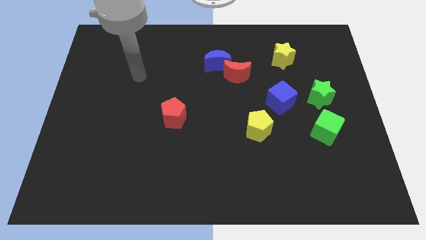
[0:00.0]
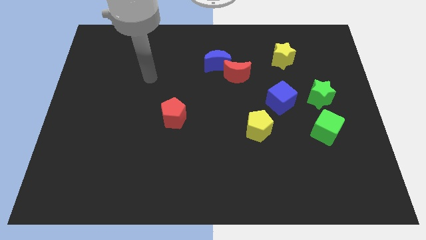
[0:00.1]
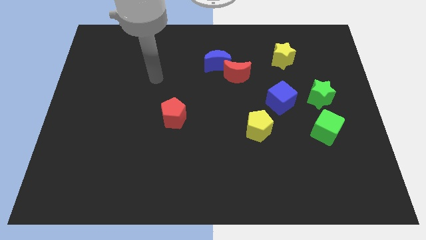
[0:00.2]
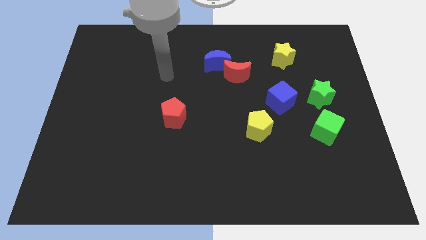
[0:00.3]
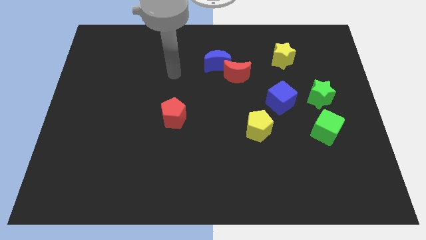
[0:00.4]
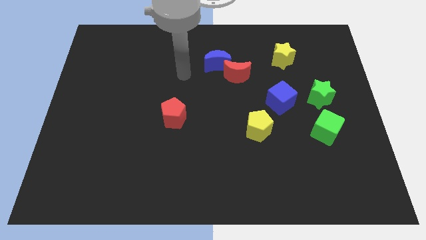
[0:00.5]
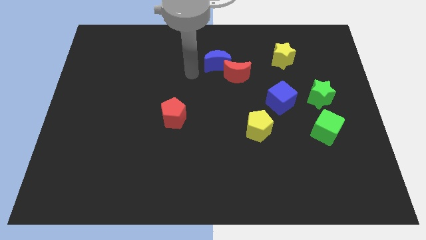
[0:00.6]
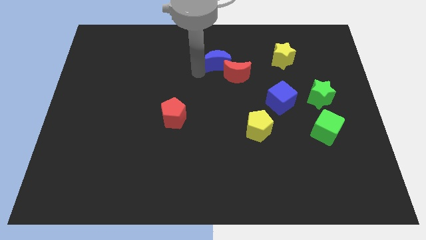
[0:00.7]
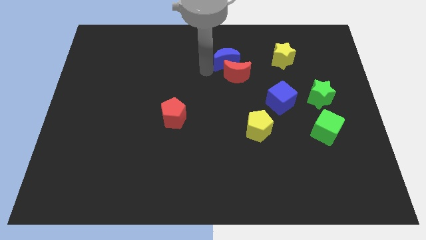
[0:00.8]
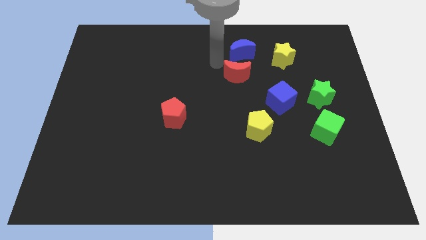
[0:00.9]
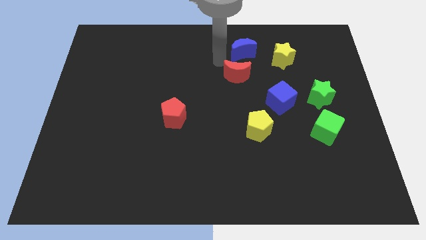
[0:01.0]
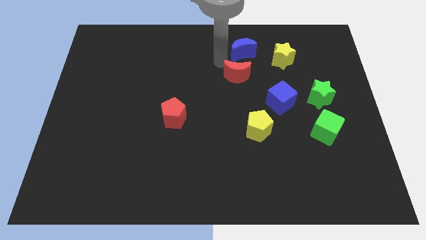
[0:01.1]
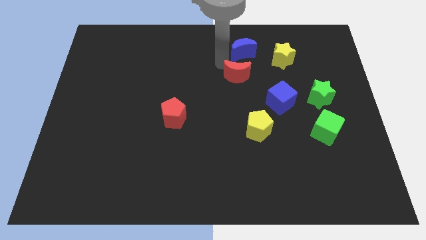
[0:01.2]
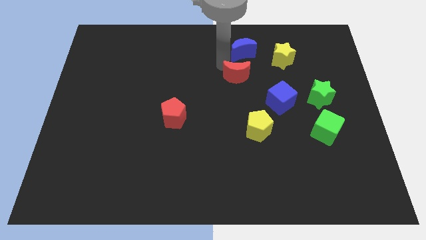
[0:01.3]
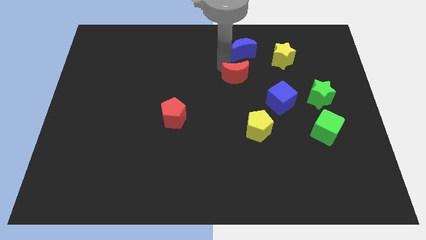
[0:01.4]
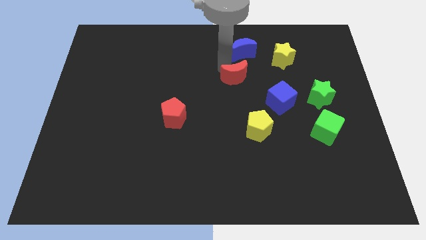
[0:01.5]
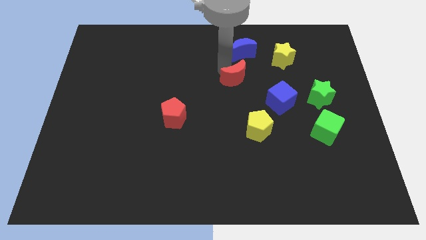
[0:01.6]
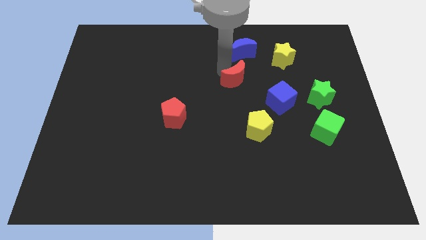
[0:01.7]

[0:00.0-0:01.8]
pull the red moon apart from the blue moon

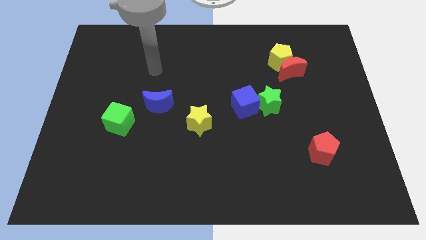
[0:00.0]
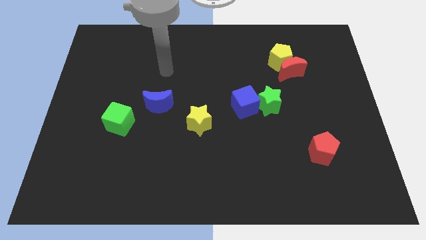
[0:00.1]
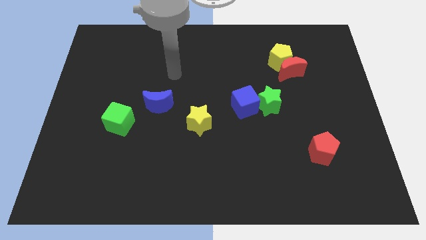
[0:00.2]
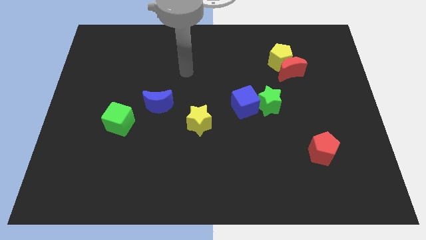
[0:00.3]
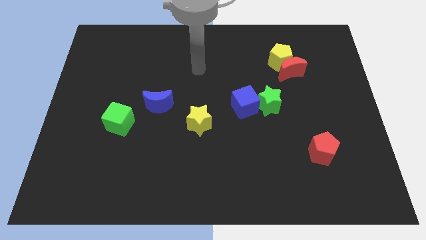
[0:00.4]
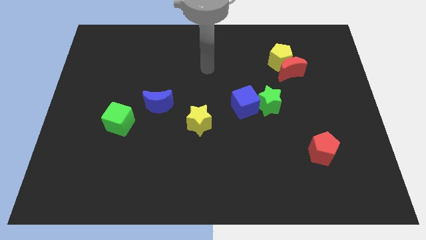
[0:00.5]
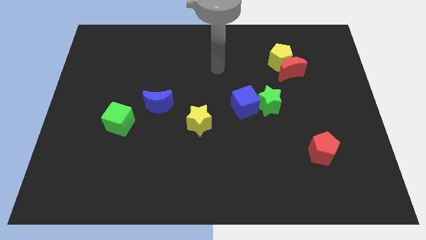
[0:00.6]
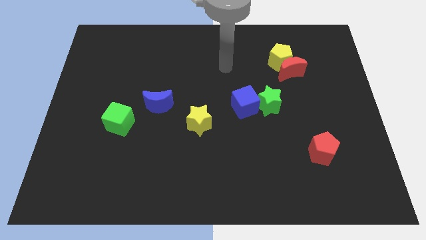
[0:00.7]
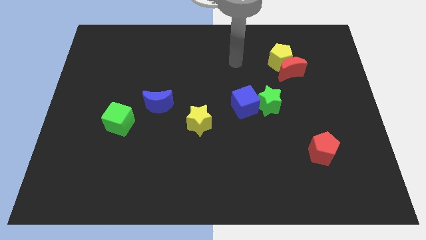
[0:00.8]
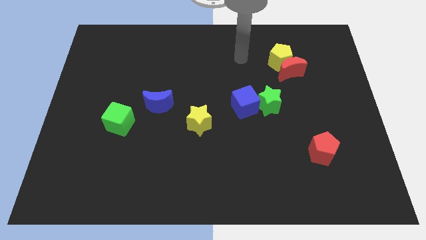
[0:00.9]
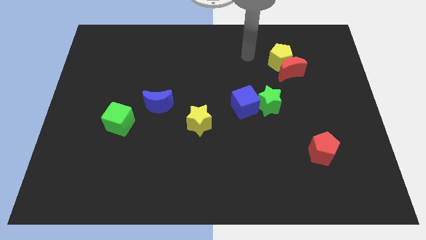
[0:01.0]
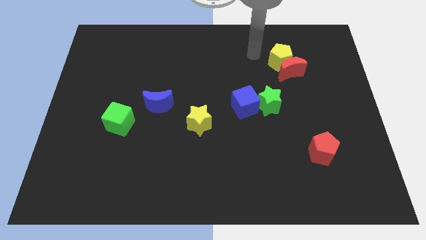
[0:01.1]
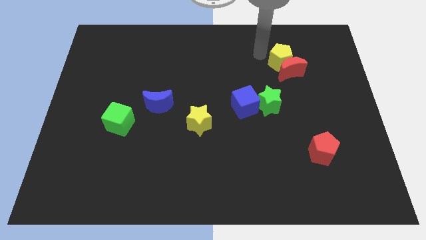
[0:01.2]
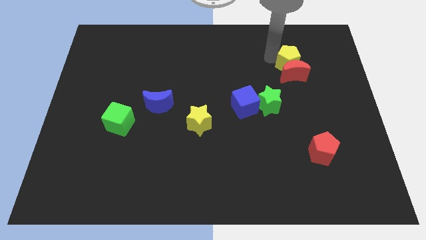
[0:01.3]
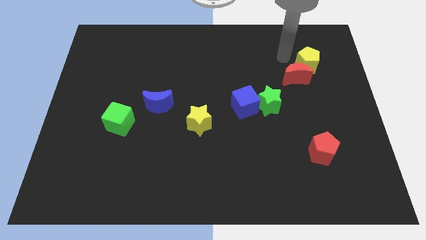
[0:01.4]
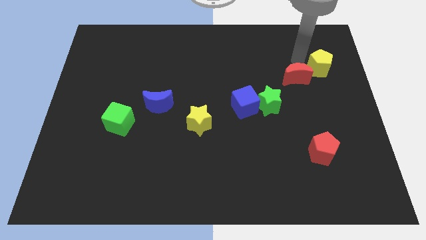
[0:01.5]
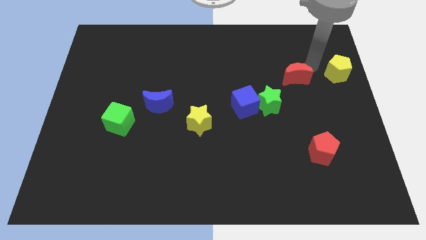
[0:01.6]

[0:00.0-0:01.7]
pull the red moon apart from the yellow pentagon

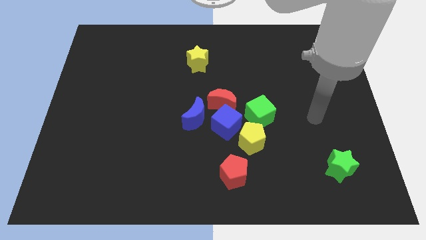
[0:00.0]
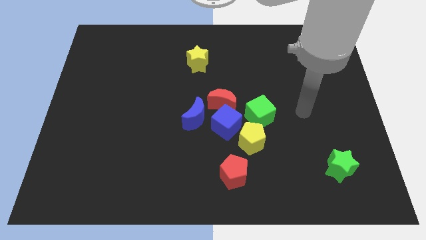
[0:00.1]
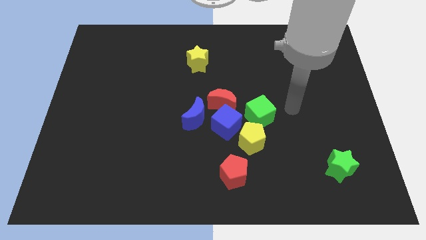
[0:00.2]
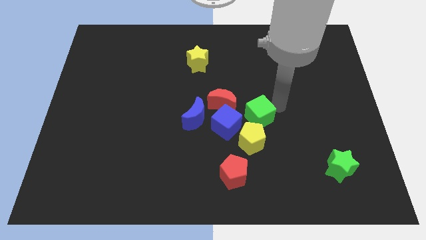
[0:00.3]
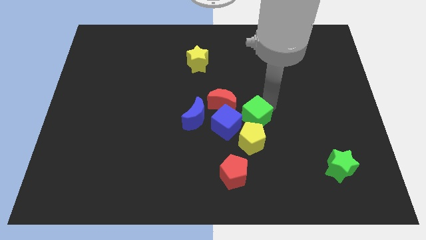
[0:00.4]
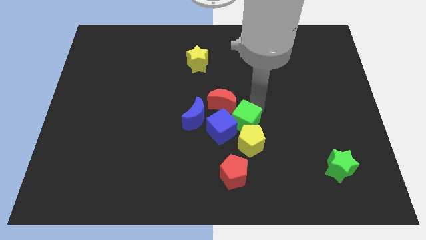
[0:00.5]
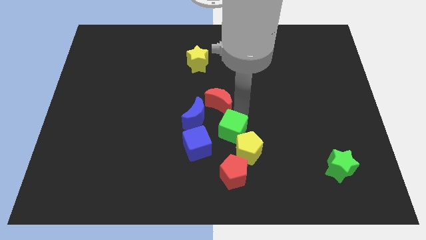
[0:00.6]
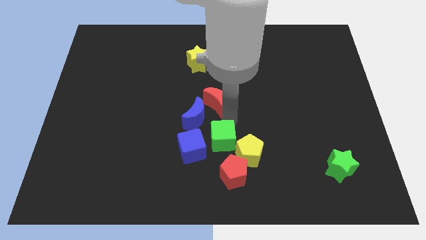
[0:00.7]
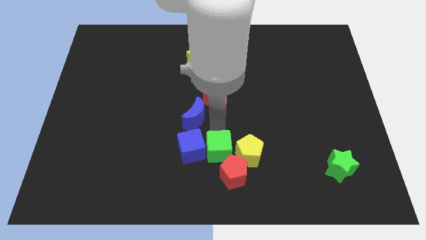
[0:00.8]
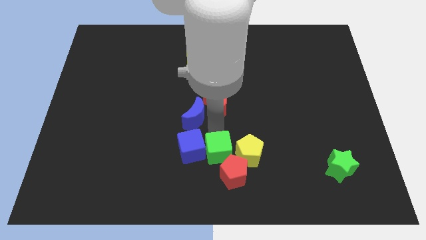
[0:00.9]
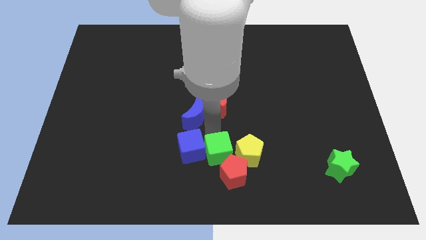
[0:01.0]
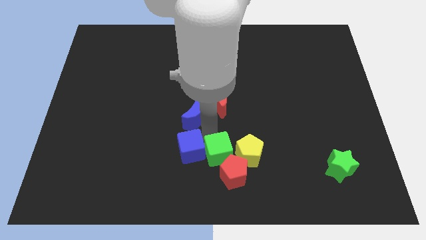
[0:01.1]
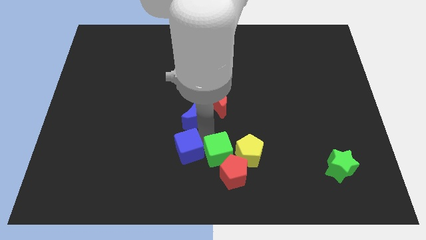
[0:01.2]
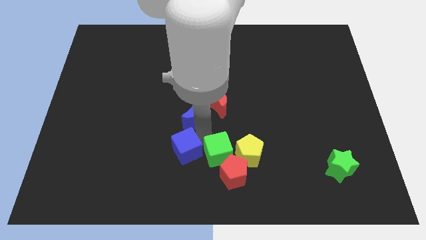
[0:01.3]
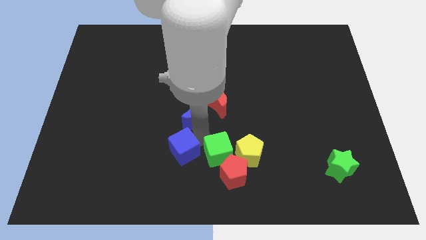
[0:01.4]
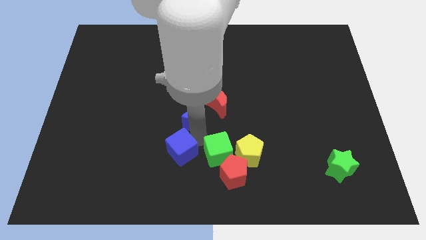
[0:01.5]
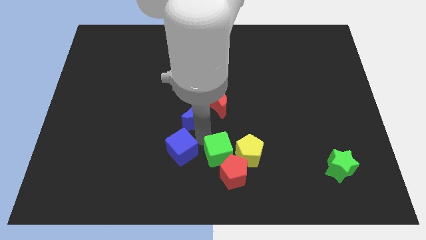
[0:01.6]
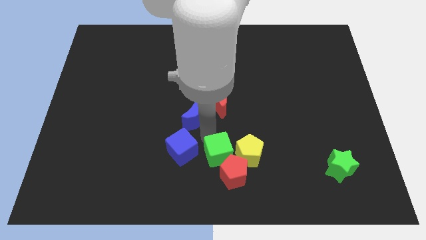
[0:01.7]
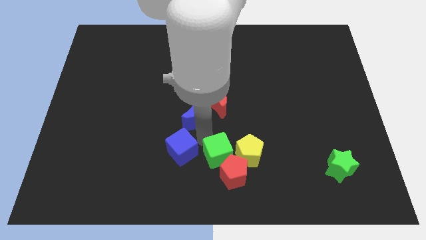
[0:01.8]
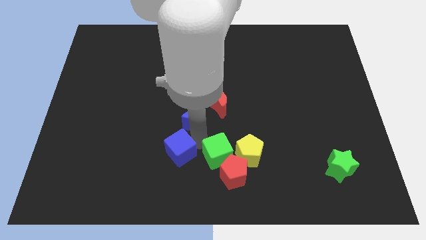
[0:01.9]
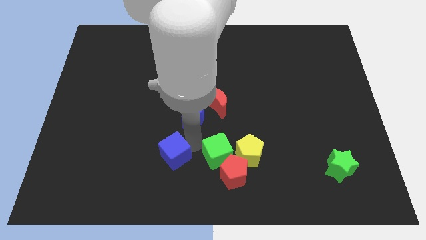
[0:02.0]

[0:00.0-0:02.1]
pull the blue cube apart from the group of blocks

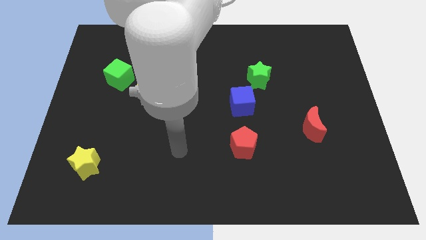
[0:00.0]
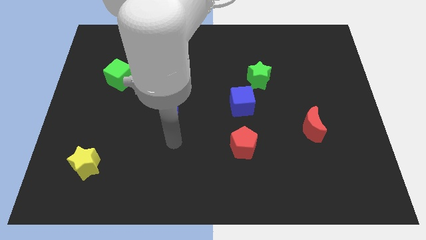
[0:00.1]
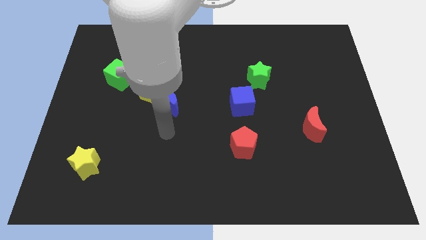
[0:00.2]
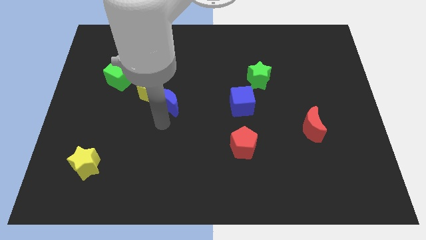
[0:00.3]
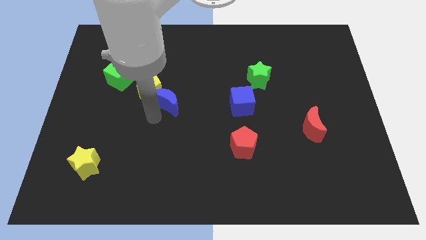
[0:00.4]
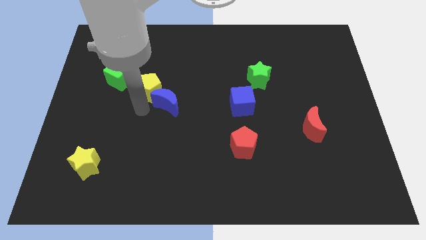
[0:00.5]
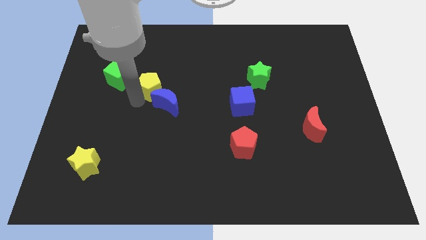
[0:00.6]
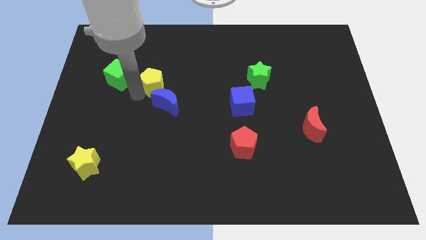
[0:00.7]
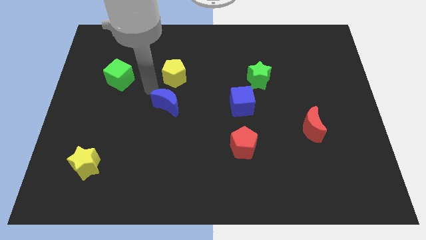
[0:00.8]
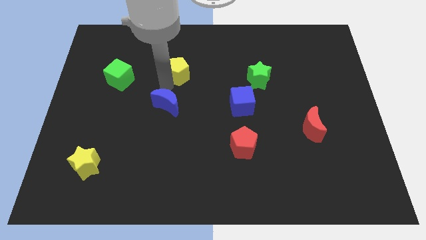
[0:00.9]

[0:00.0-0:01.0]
move the blue moon away from the yellow pentagon

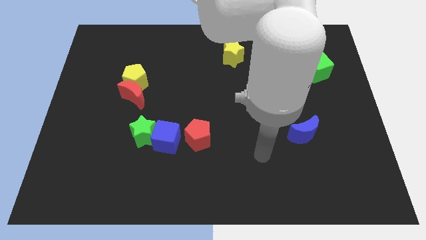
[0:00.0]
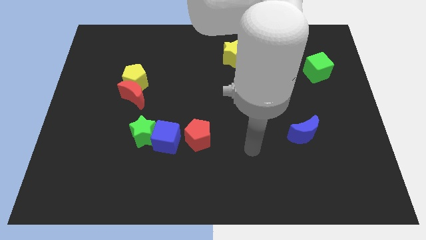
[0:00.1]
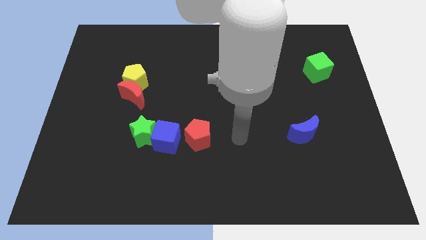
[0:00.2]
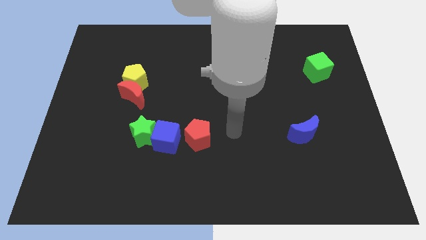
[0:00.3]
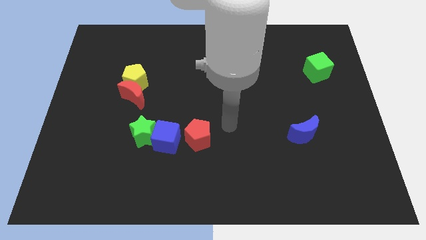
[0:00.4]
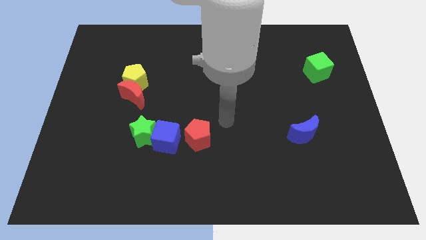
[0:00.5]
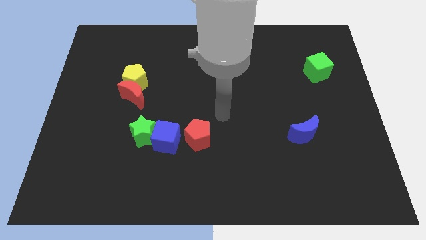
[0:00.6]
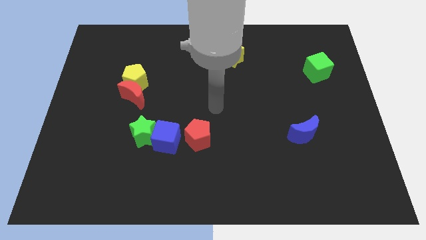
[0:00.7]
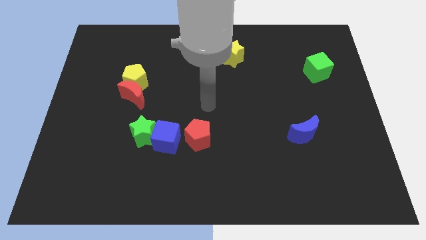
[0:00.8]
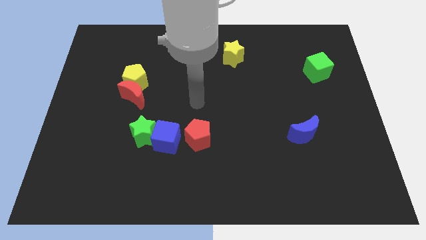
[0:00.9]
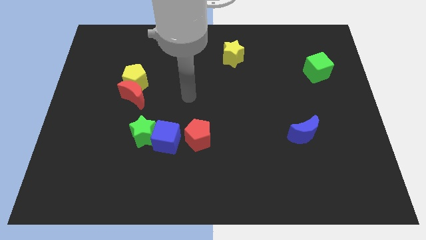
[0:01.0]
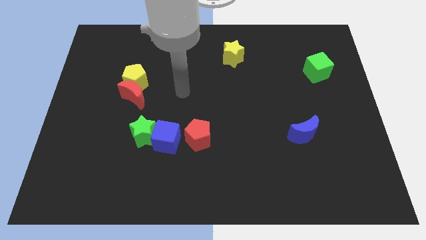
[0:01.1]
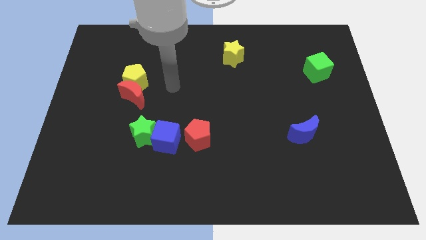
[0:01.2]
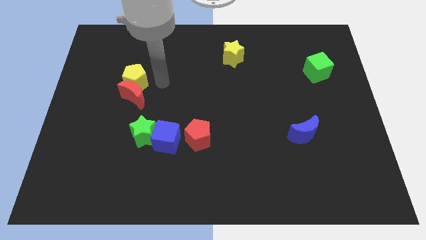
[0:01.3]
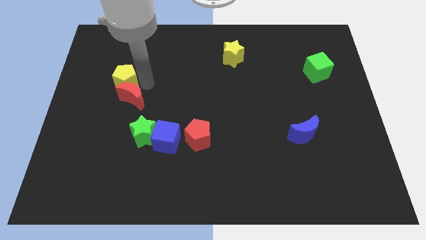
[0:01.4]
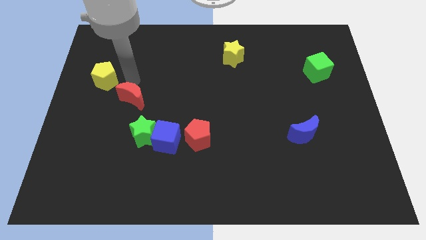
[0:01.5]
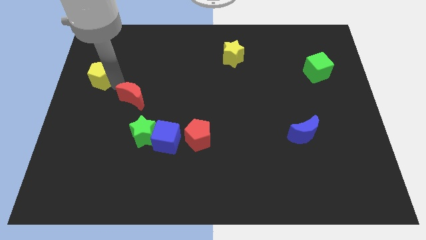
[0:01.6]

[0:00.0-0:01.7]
move the red moon away from the yellow pentagon

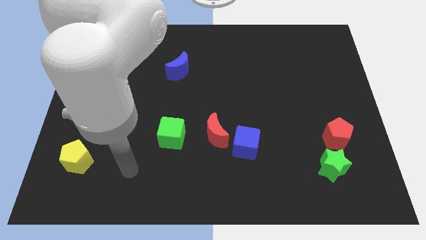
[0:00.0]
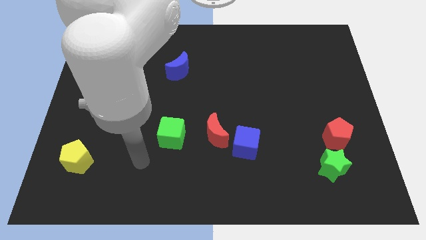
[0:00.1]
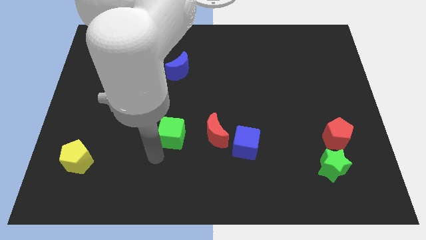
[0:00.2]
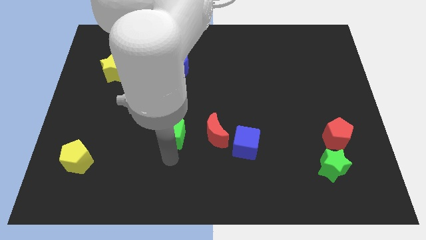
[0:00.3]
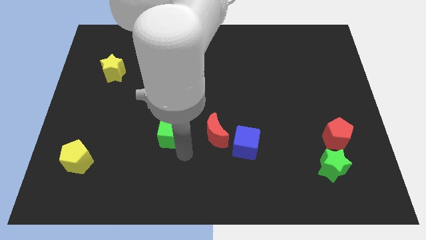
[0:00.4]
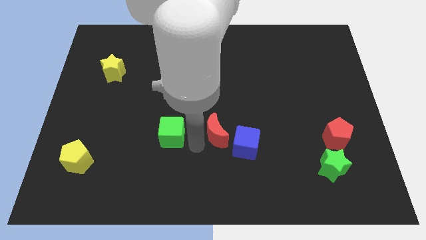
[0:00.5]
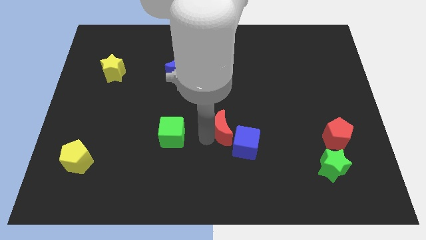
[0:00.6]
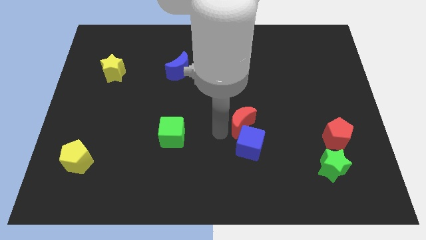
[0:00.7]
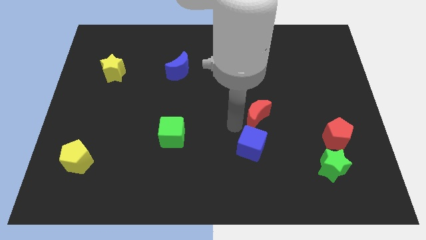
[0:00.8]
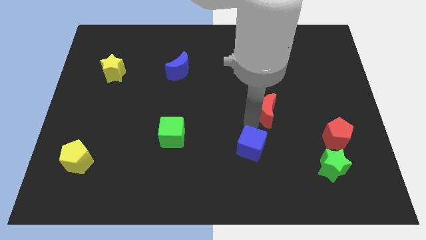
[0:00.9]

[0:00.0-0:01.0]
separate the blue cube from the red moon
